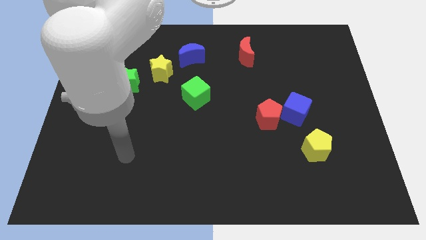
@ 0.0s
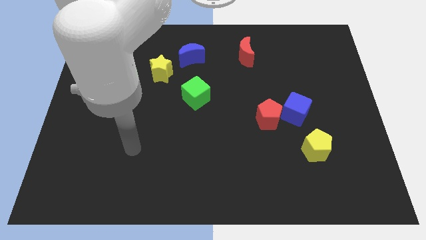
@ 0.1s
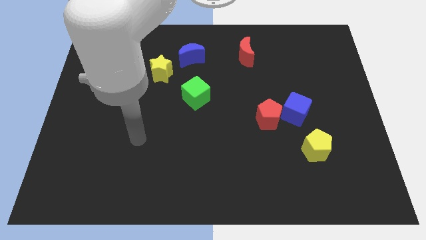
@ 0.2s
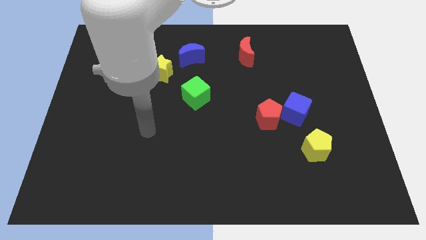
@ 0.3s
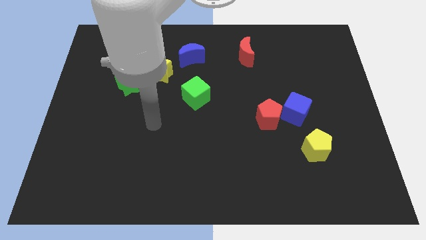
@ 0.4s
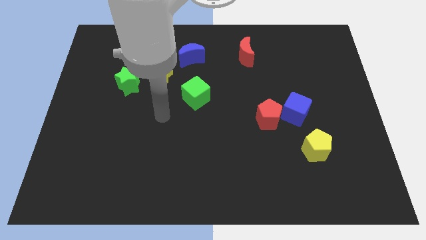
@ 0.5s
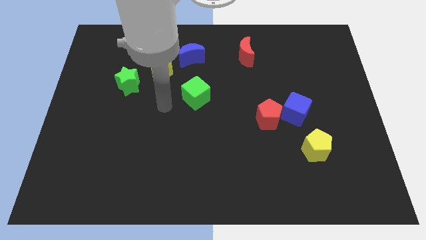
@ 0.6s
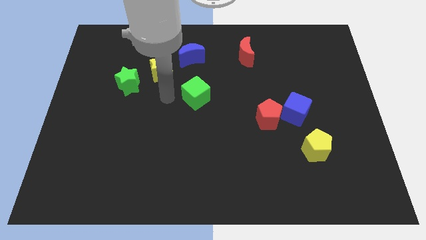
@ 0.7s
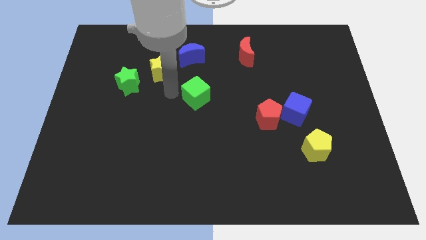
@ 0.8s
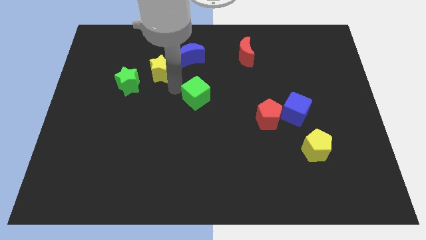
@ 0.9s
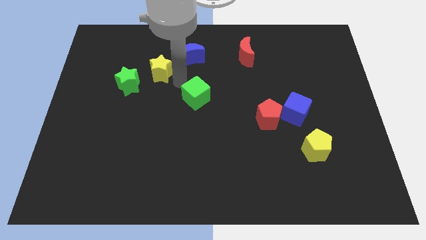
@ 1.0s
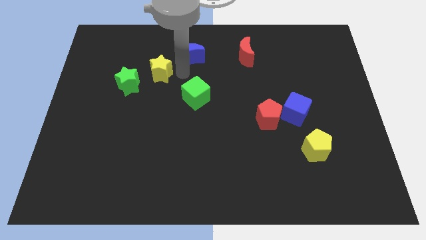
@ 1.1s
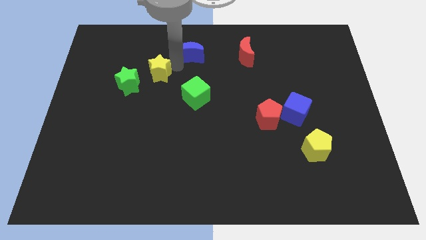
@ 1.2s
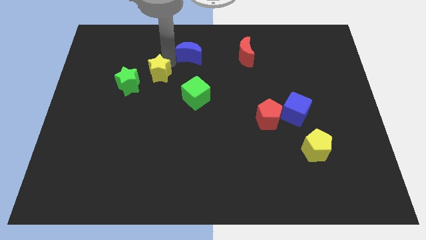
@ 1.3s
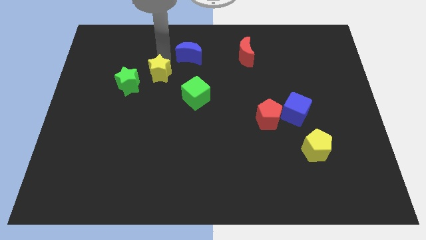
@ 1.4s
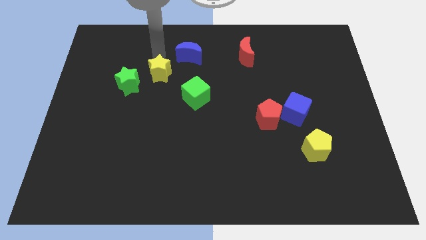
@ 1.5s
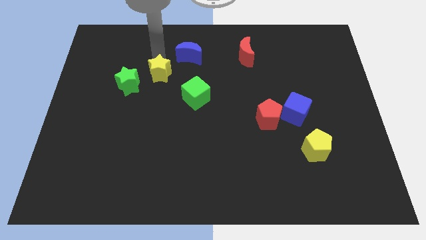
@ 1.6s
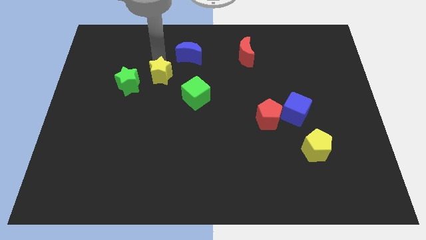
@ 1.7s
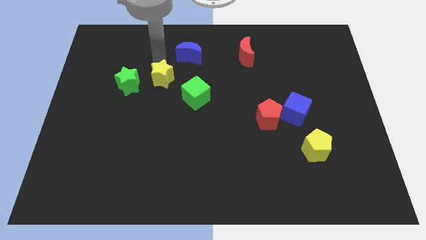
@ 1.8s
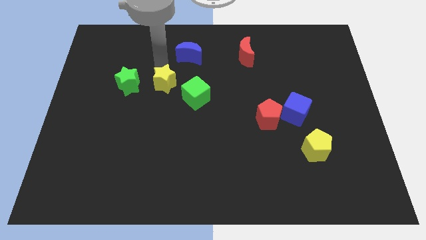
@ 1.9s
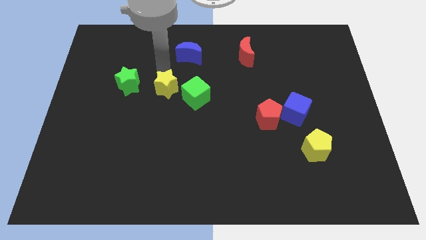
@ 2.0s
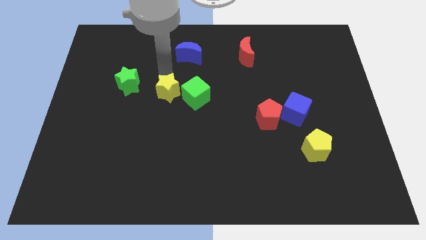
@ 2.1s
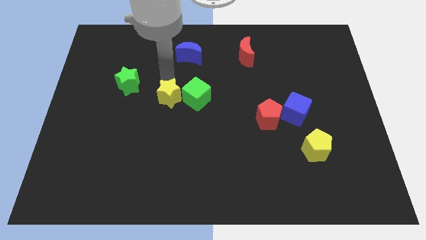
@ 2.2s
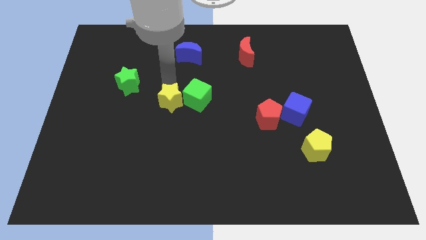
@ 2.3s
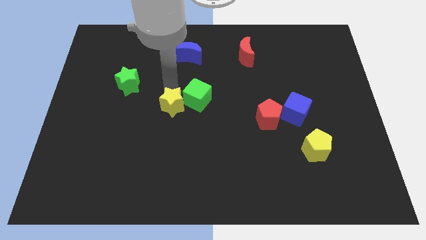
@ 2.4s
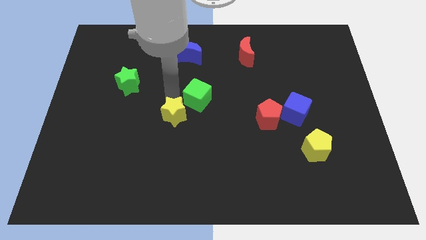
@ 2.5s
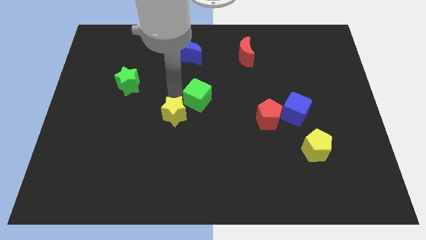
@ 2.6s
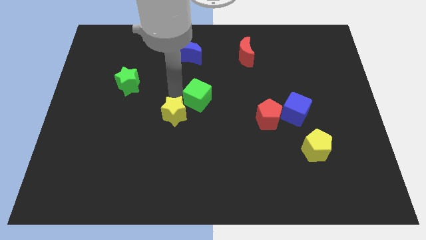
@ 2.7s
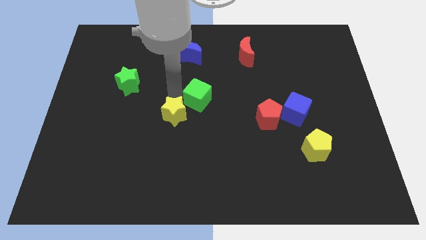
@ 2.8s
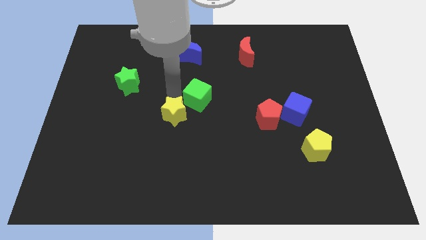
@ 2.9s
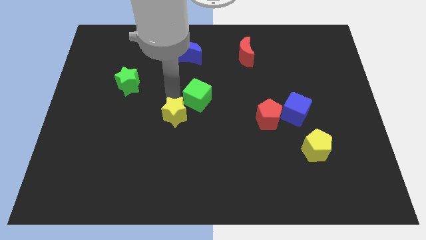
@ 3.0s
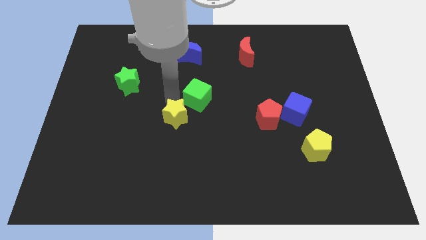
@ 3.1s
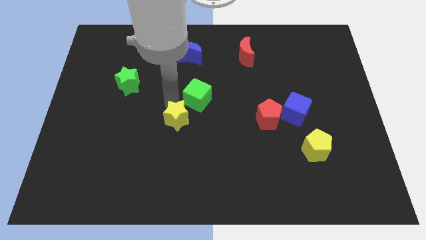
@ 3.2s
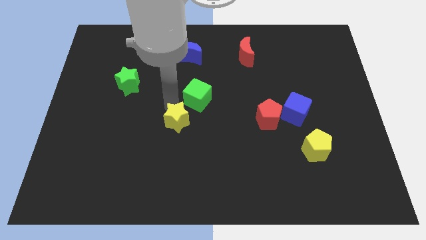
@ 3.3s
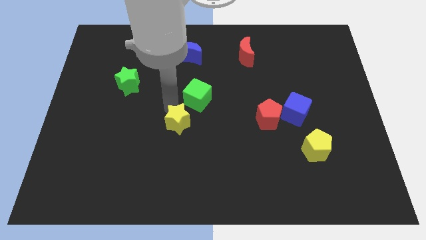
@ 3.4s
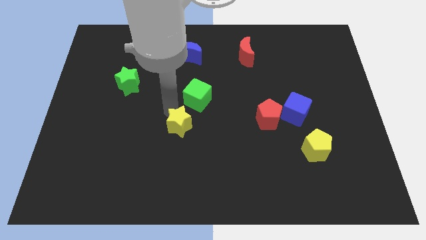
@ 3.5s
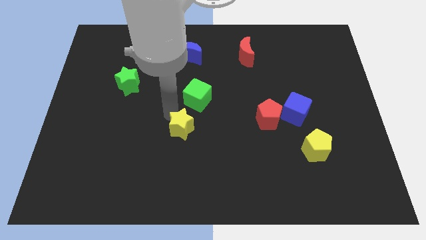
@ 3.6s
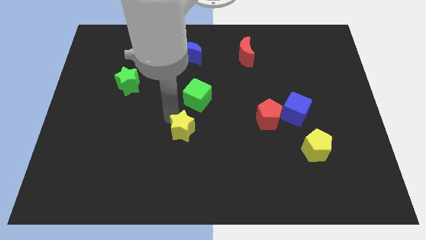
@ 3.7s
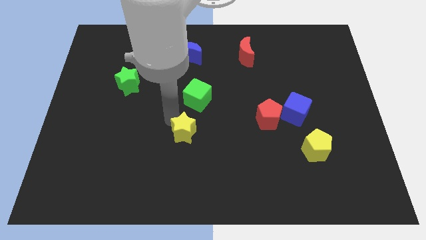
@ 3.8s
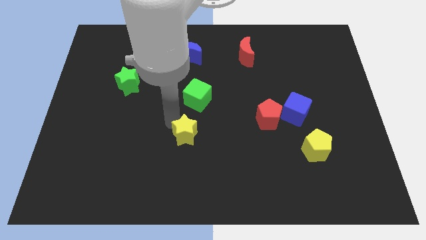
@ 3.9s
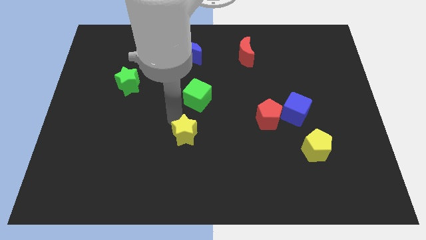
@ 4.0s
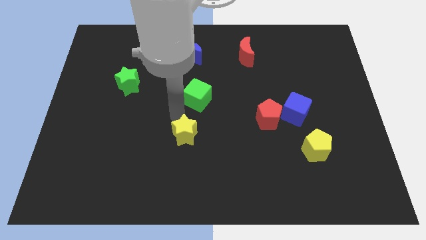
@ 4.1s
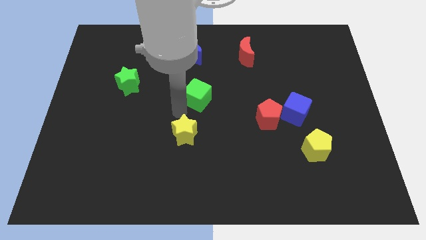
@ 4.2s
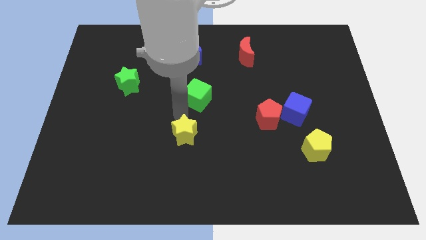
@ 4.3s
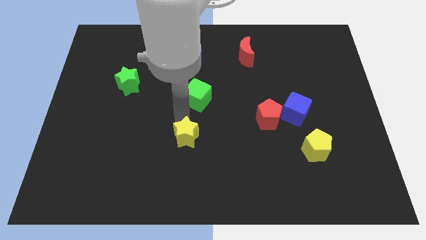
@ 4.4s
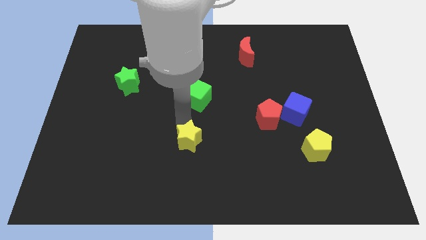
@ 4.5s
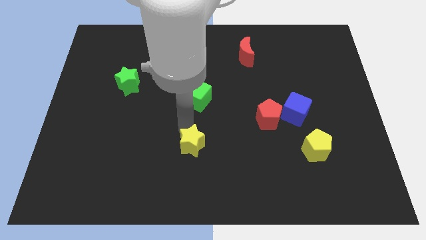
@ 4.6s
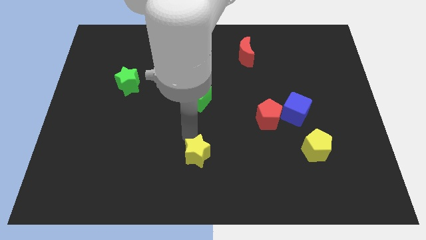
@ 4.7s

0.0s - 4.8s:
push the yellow star to the bottom

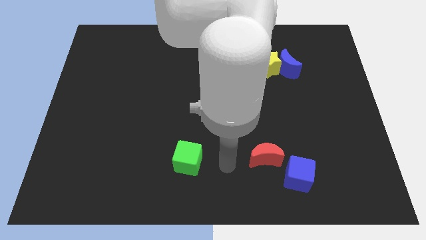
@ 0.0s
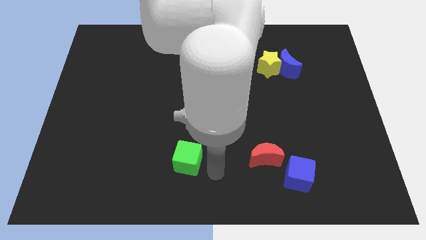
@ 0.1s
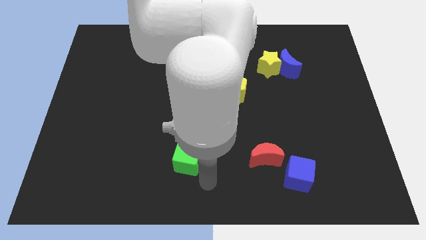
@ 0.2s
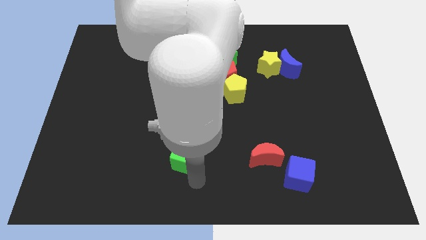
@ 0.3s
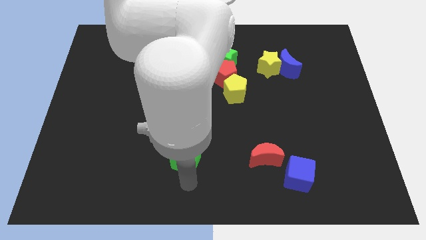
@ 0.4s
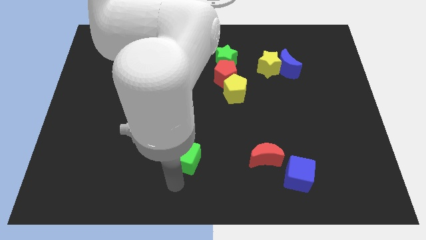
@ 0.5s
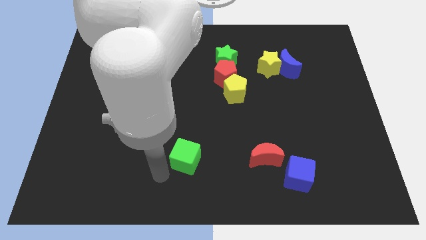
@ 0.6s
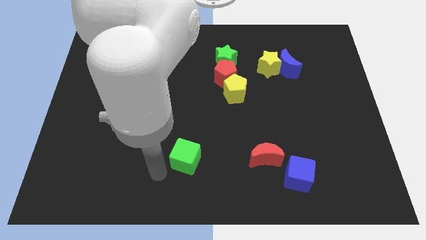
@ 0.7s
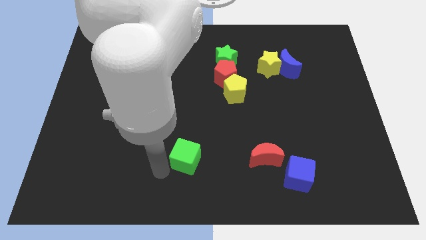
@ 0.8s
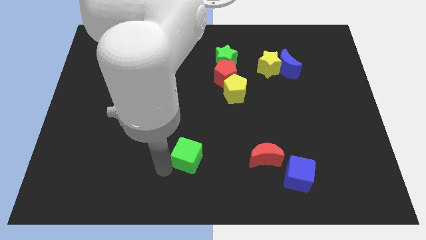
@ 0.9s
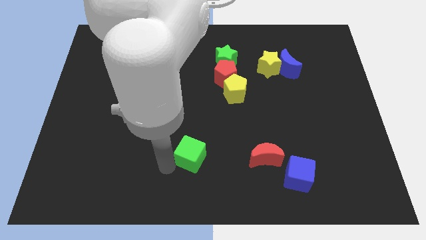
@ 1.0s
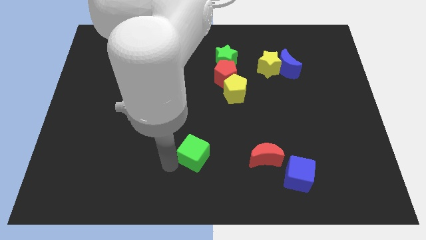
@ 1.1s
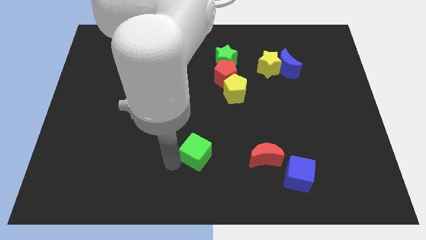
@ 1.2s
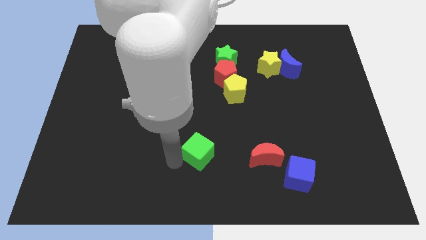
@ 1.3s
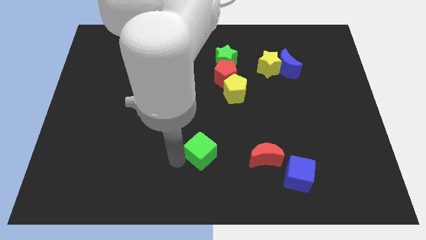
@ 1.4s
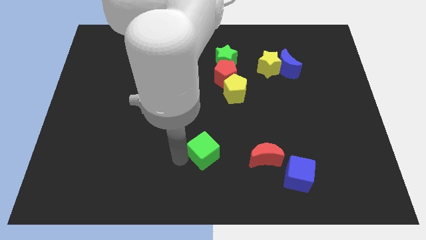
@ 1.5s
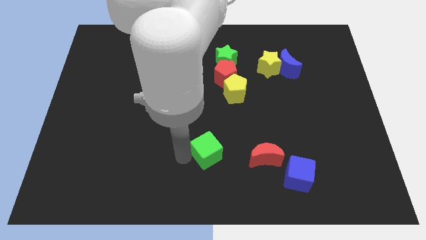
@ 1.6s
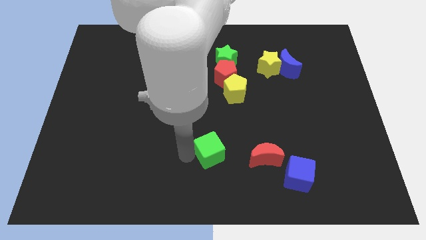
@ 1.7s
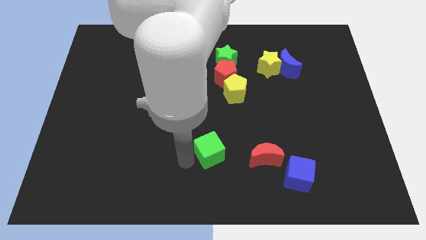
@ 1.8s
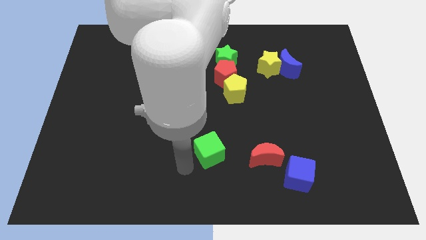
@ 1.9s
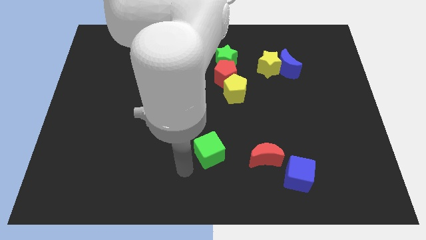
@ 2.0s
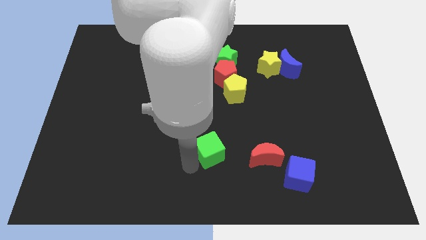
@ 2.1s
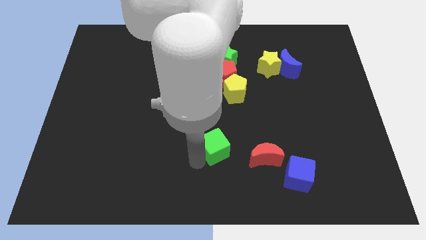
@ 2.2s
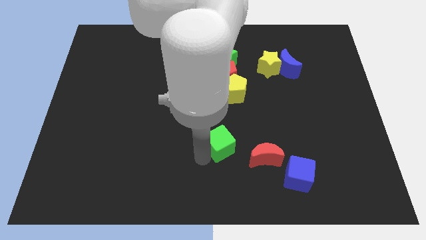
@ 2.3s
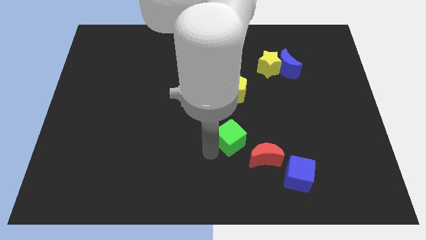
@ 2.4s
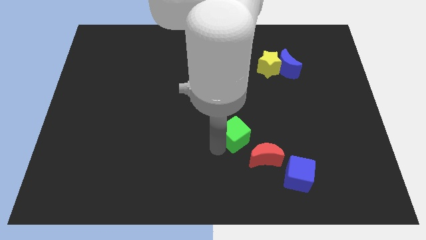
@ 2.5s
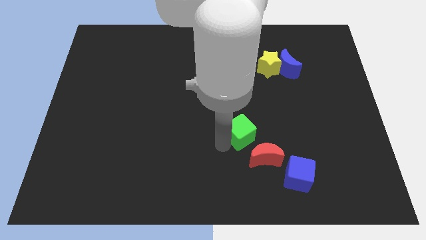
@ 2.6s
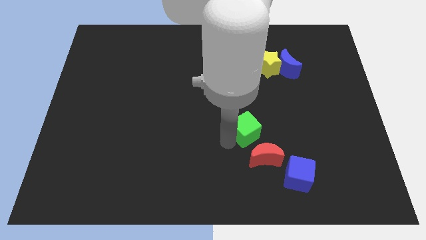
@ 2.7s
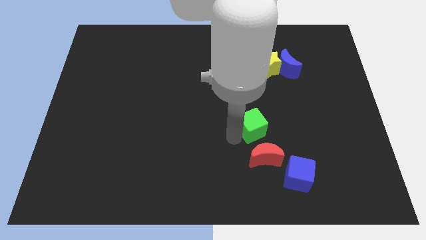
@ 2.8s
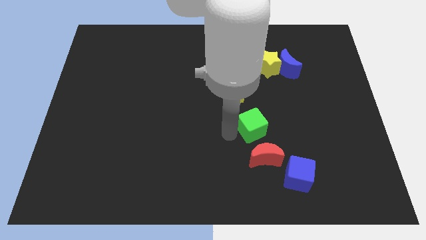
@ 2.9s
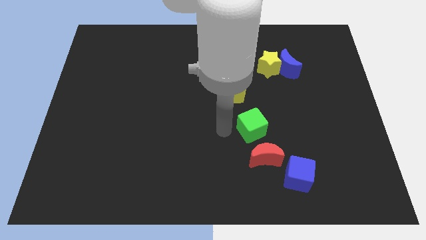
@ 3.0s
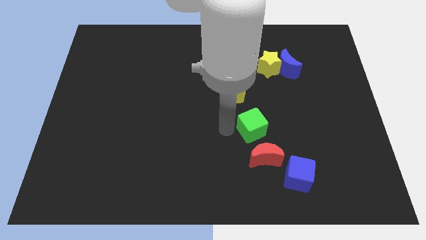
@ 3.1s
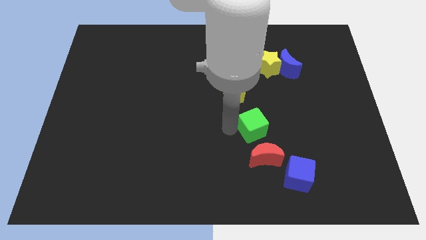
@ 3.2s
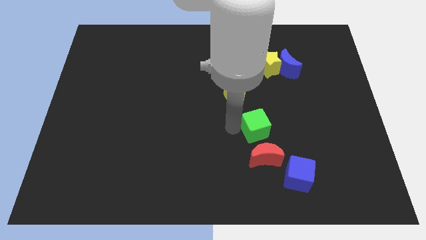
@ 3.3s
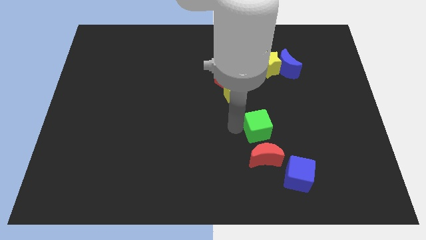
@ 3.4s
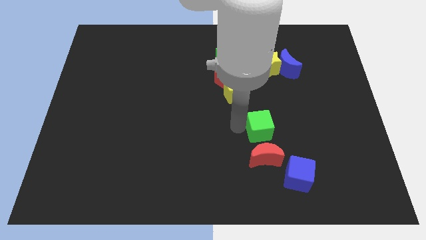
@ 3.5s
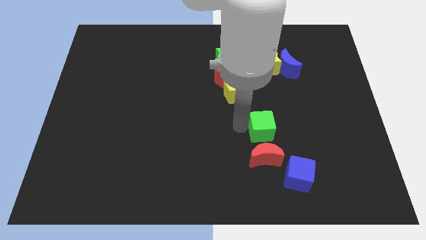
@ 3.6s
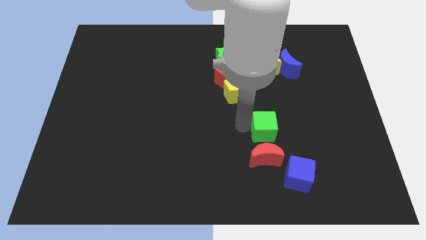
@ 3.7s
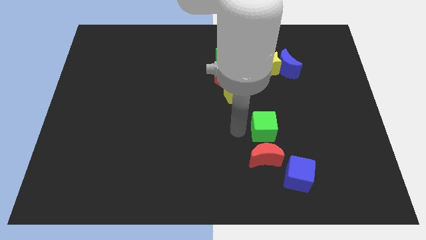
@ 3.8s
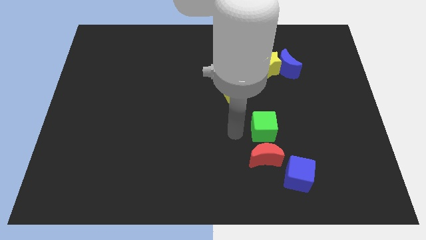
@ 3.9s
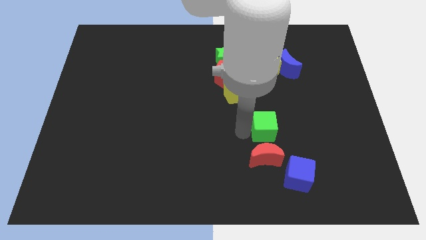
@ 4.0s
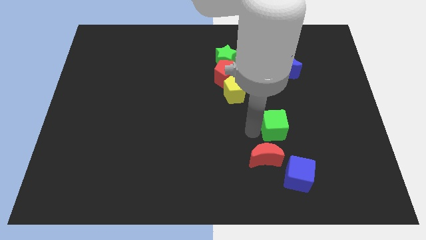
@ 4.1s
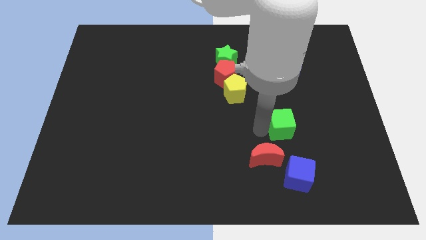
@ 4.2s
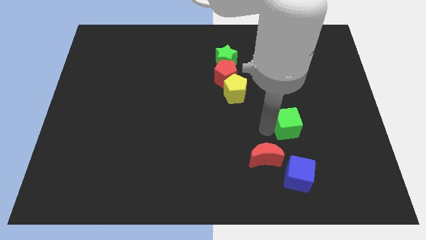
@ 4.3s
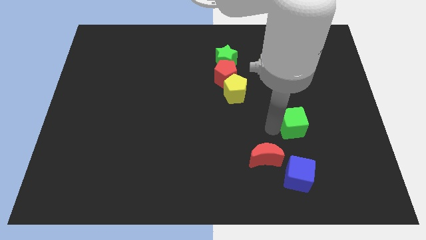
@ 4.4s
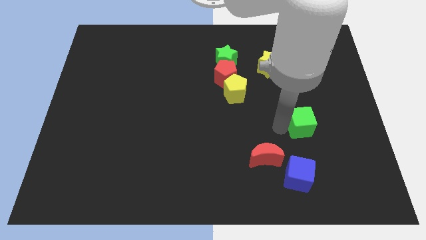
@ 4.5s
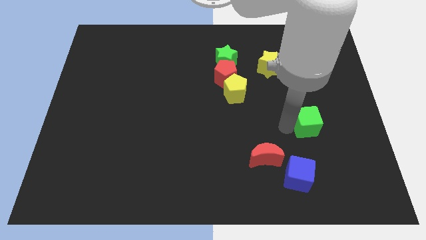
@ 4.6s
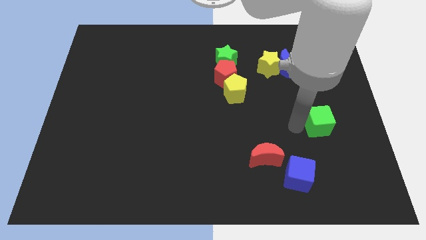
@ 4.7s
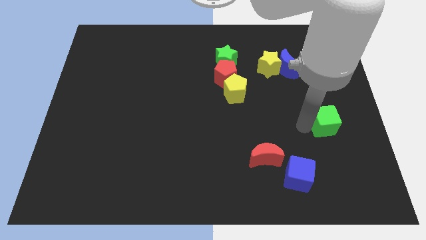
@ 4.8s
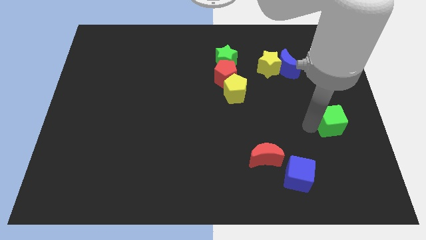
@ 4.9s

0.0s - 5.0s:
put the green cube to the right side
